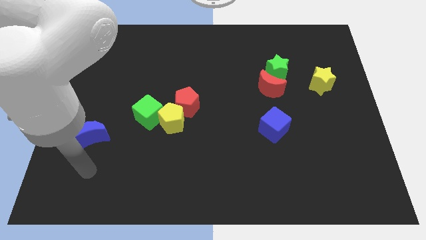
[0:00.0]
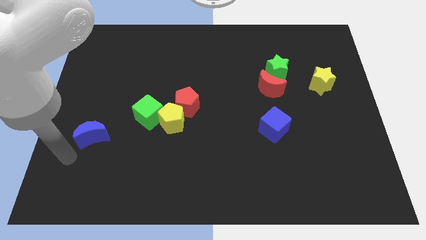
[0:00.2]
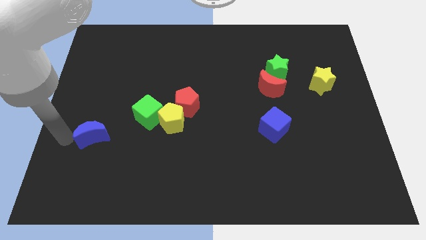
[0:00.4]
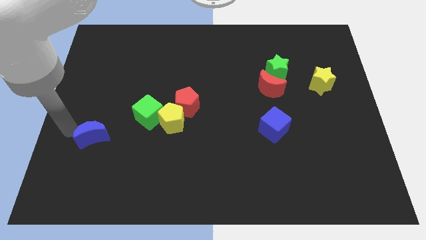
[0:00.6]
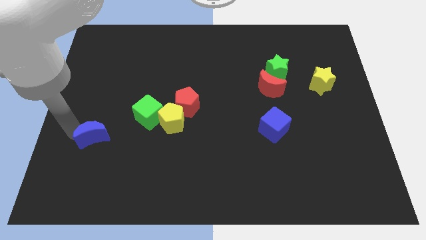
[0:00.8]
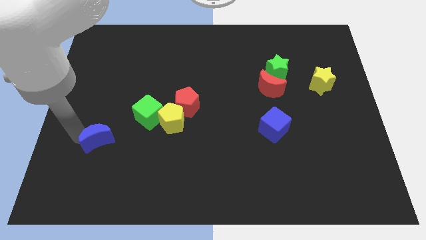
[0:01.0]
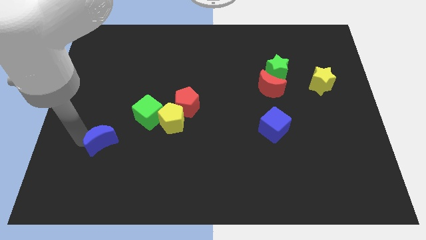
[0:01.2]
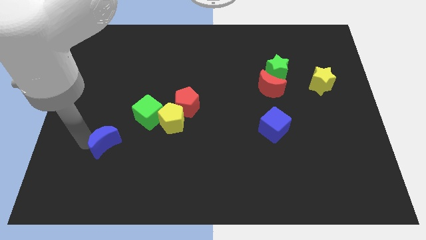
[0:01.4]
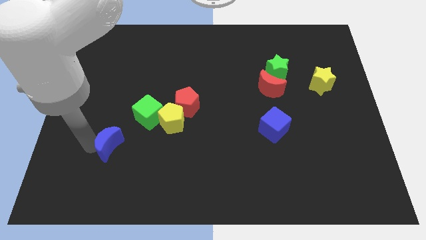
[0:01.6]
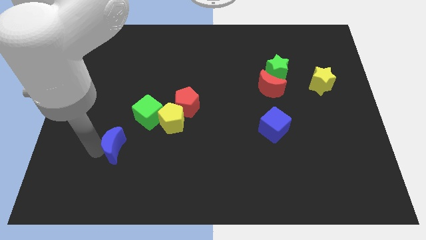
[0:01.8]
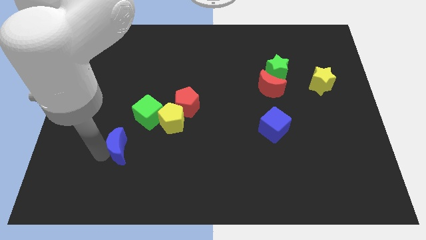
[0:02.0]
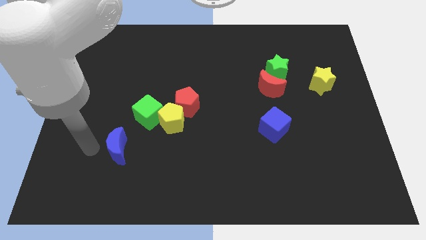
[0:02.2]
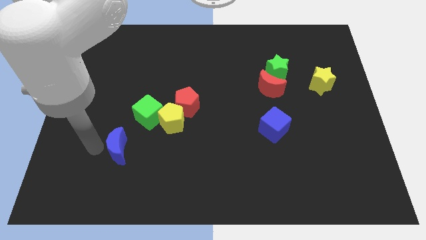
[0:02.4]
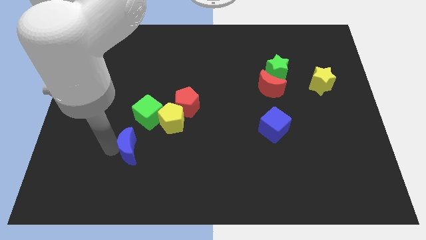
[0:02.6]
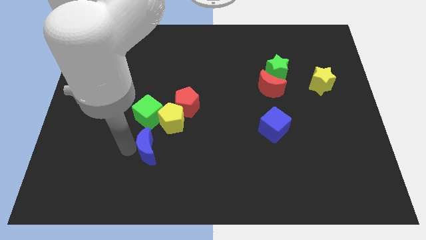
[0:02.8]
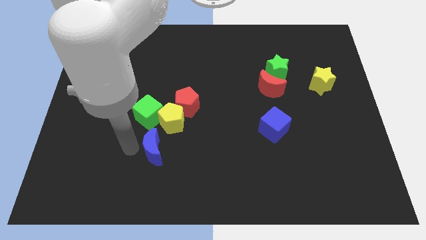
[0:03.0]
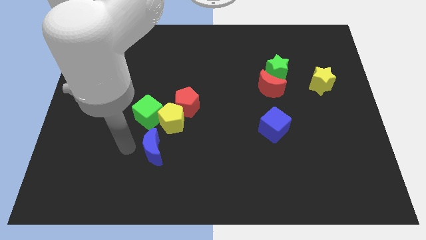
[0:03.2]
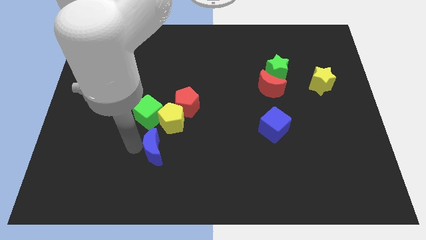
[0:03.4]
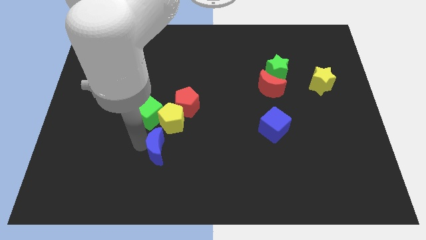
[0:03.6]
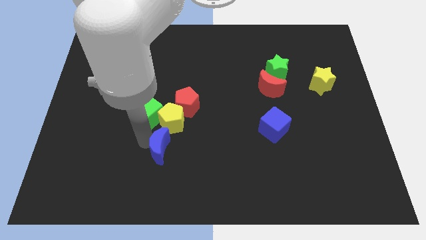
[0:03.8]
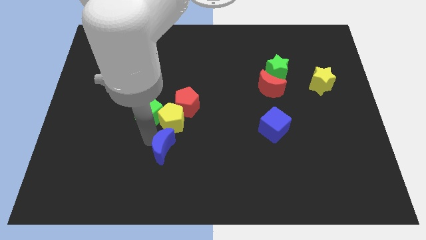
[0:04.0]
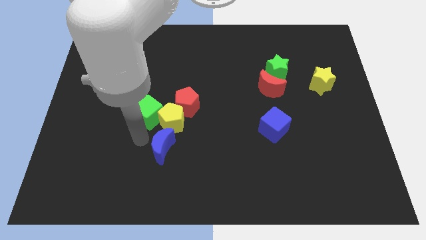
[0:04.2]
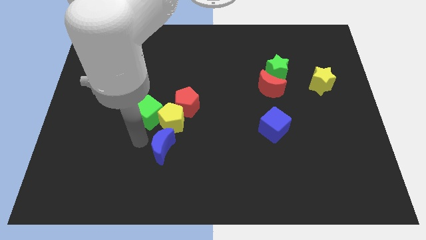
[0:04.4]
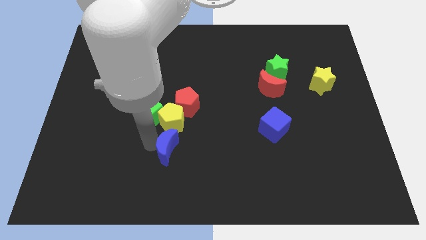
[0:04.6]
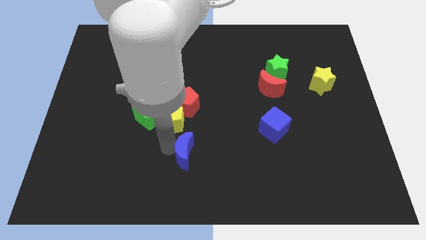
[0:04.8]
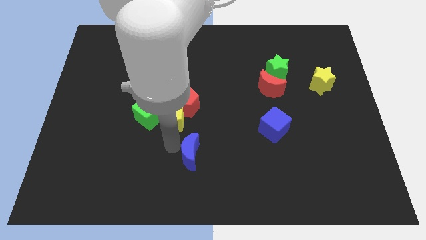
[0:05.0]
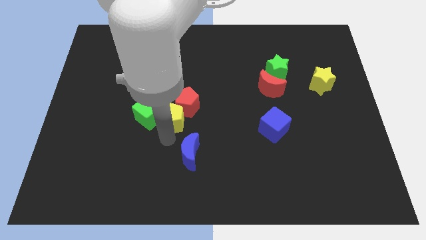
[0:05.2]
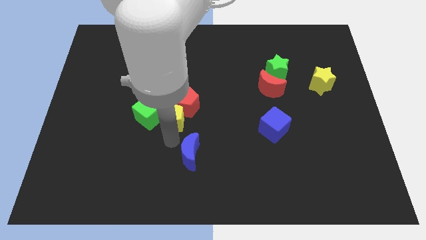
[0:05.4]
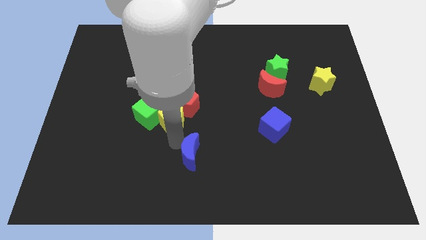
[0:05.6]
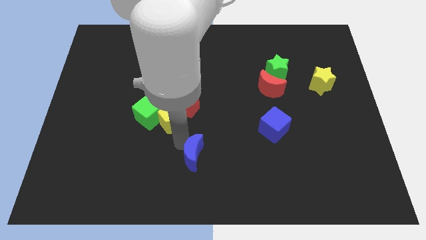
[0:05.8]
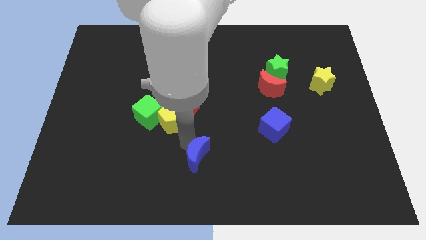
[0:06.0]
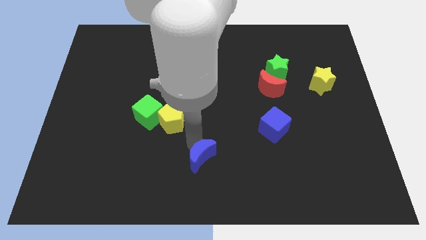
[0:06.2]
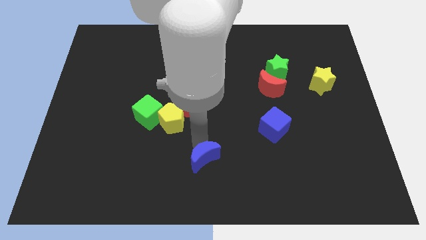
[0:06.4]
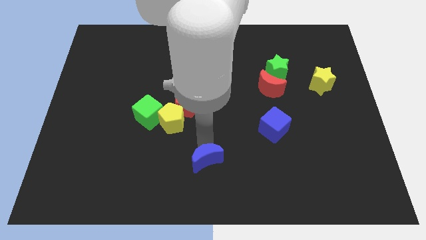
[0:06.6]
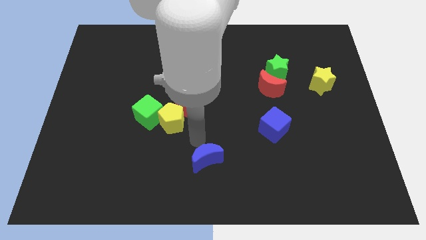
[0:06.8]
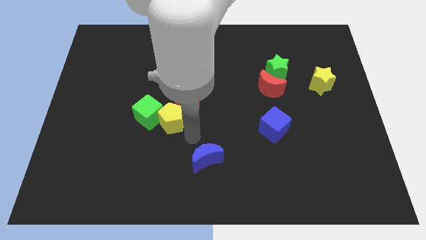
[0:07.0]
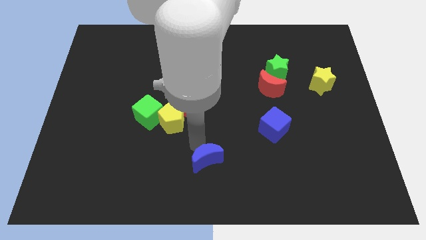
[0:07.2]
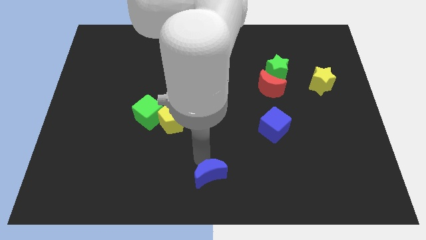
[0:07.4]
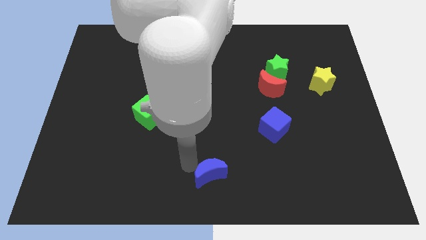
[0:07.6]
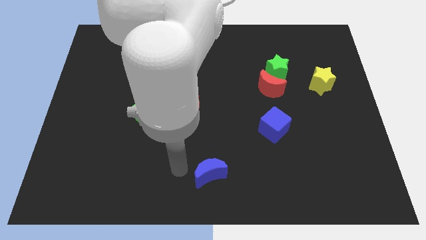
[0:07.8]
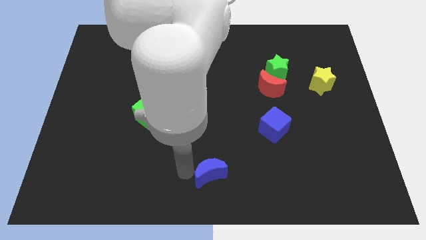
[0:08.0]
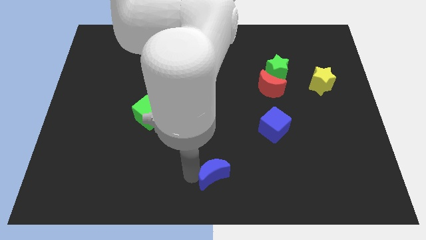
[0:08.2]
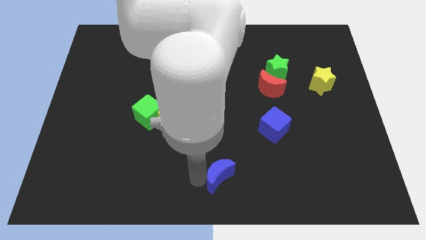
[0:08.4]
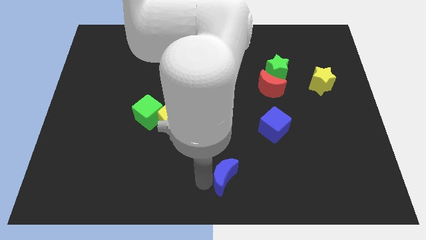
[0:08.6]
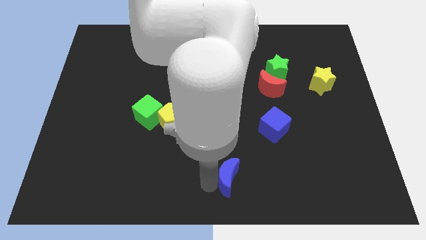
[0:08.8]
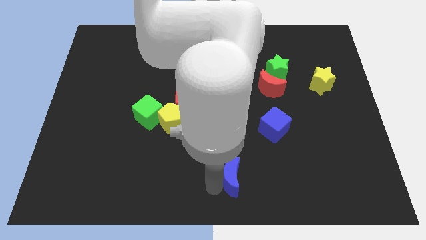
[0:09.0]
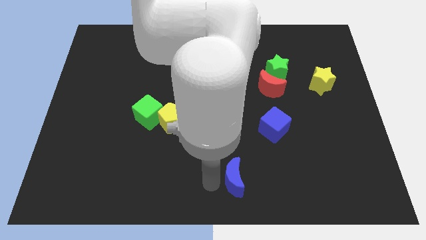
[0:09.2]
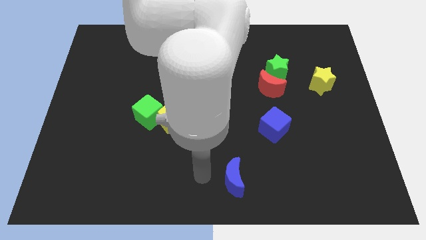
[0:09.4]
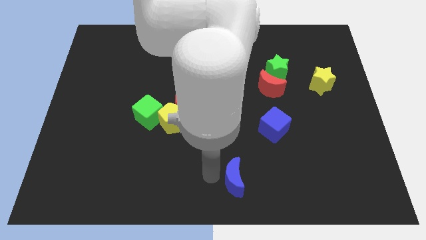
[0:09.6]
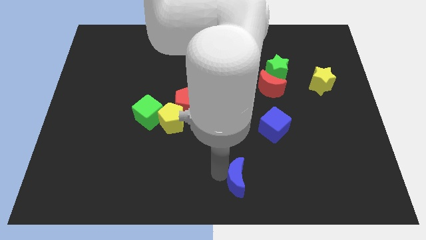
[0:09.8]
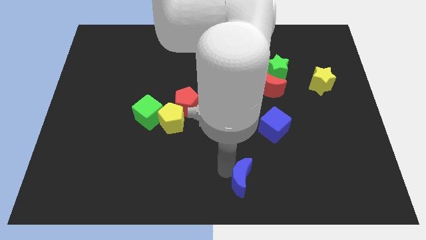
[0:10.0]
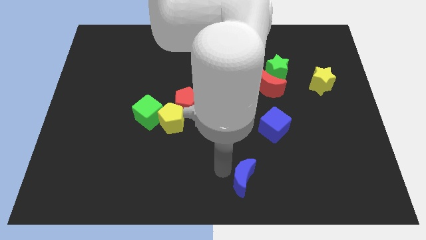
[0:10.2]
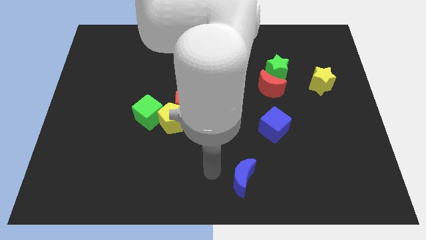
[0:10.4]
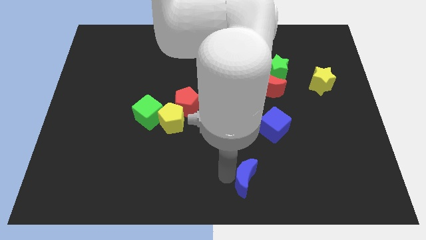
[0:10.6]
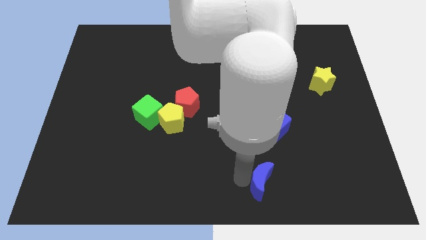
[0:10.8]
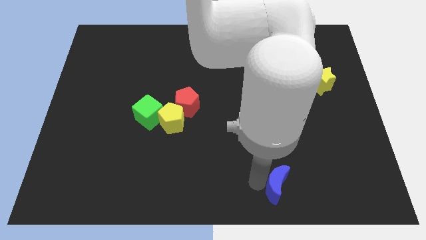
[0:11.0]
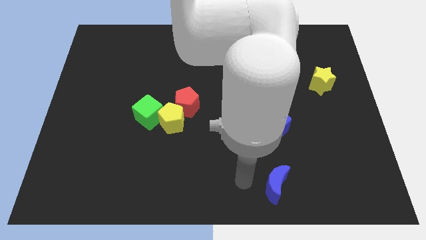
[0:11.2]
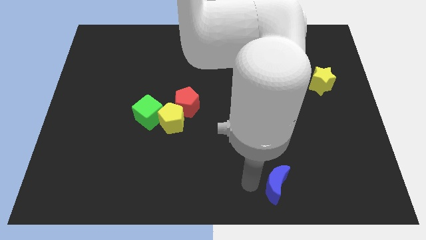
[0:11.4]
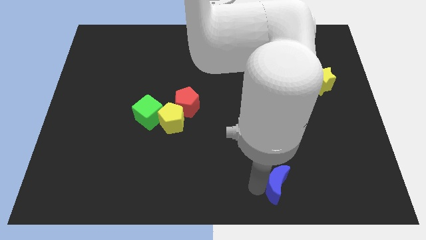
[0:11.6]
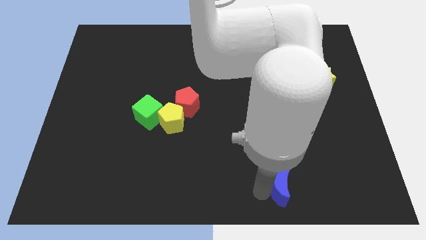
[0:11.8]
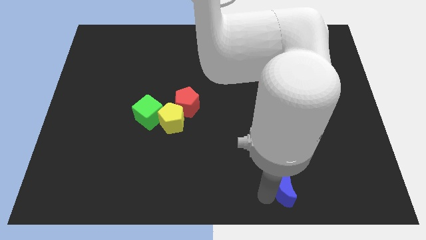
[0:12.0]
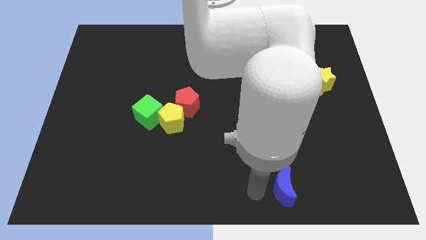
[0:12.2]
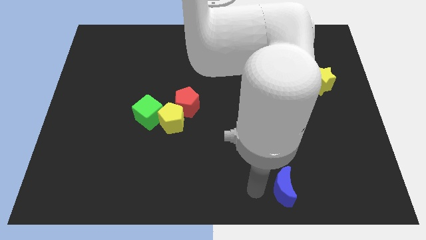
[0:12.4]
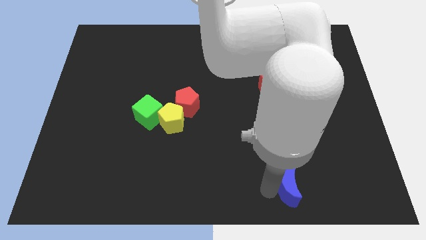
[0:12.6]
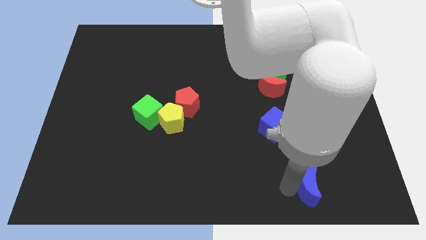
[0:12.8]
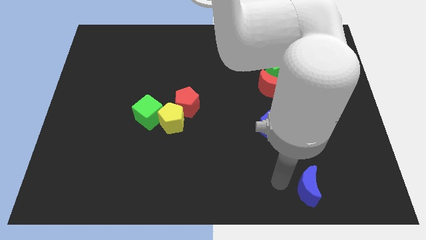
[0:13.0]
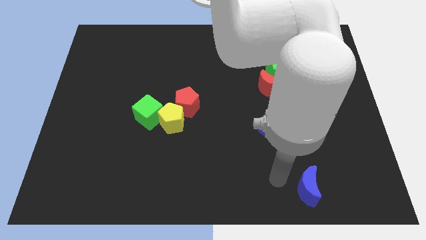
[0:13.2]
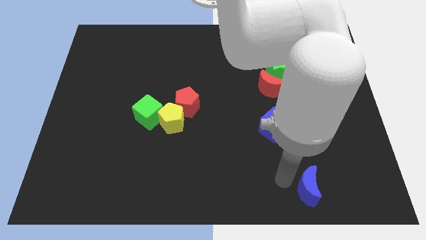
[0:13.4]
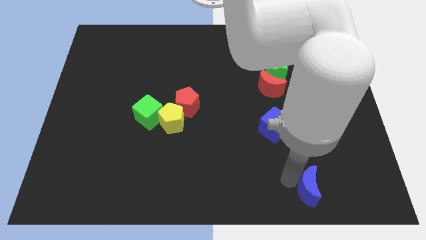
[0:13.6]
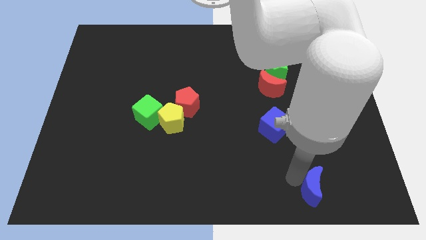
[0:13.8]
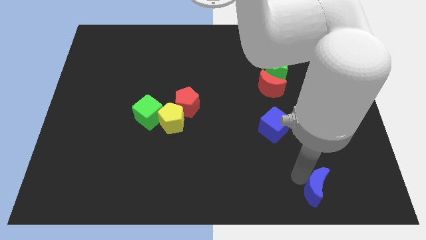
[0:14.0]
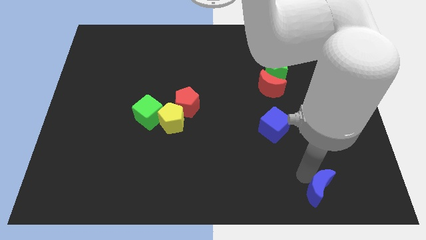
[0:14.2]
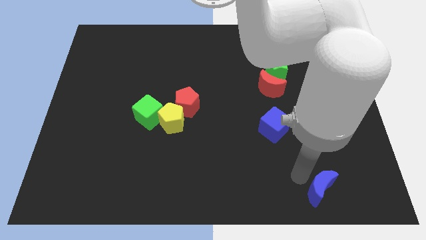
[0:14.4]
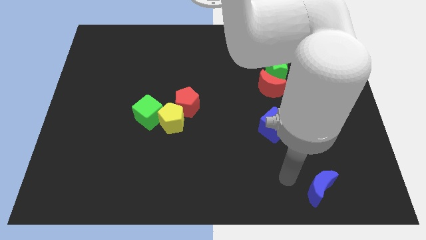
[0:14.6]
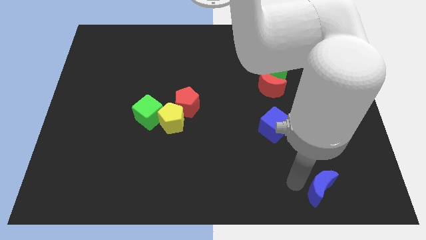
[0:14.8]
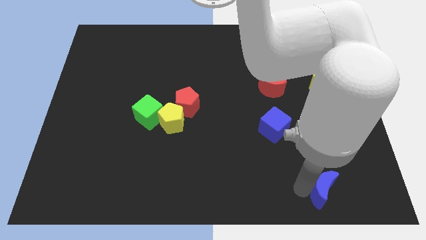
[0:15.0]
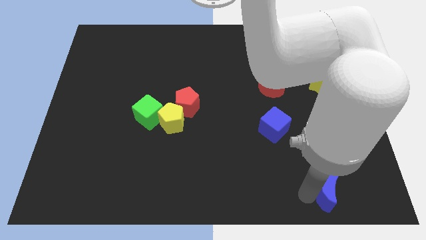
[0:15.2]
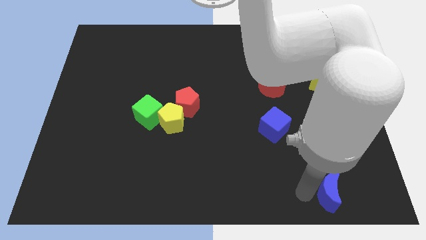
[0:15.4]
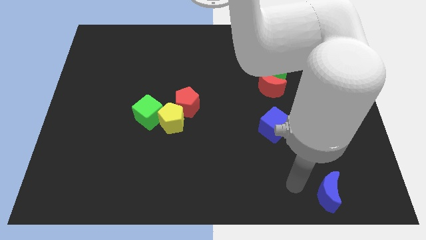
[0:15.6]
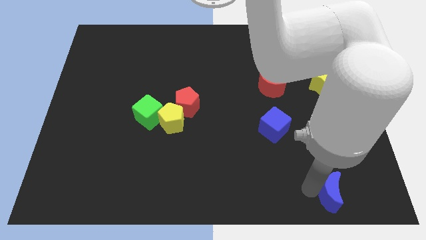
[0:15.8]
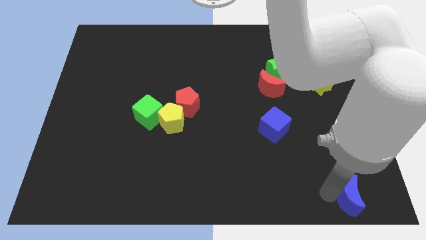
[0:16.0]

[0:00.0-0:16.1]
push the blue moon to the lower right corner
